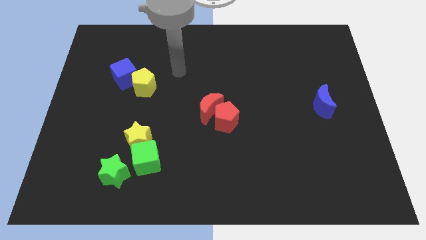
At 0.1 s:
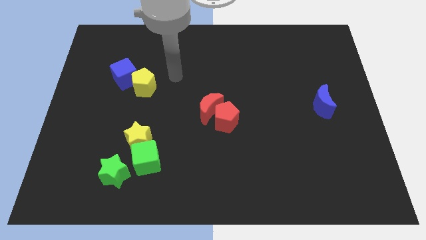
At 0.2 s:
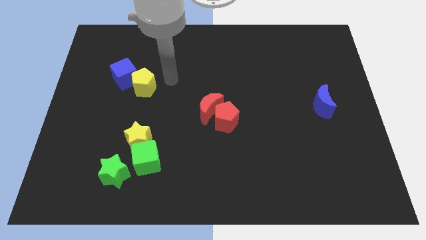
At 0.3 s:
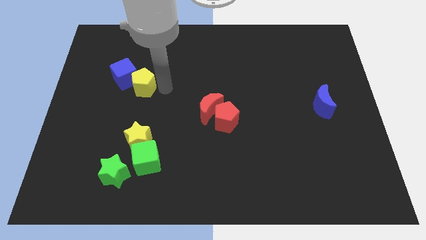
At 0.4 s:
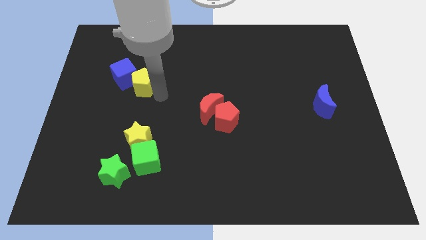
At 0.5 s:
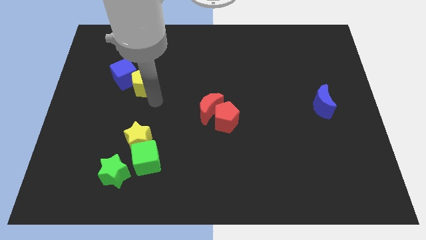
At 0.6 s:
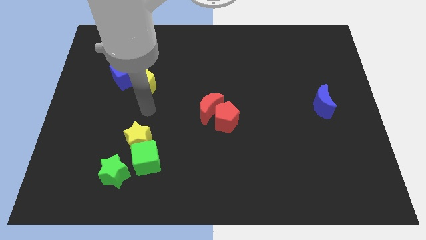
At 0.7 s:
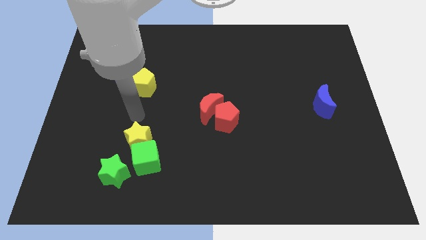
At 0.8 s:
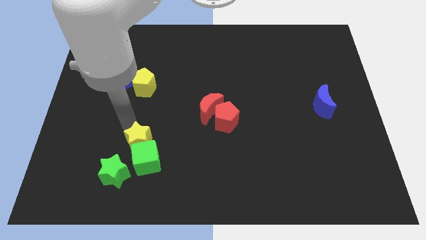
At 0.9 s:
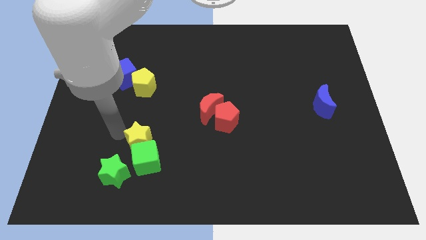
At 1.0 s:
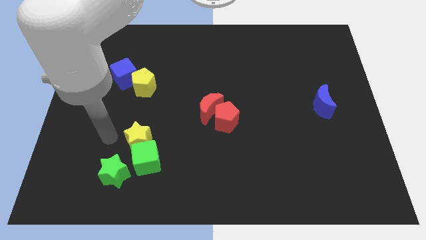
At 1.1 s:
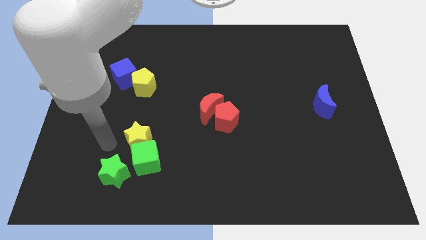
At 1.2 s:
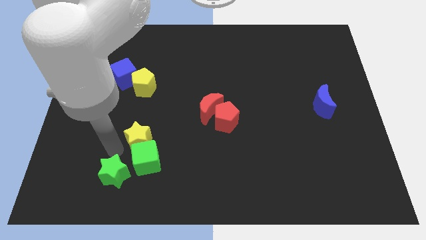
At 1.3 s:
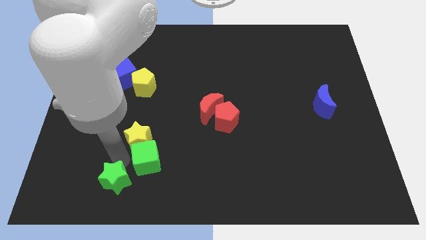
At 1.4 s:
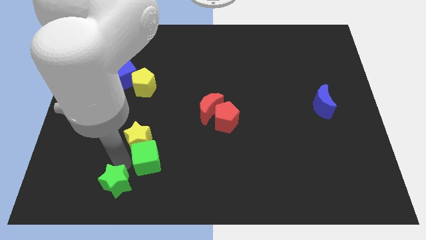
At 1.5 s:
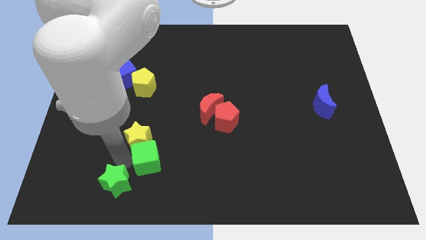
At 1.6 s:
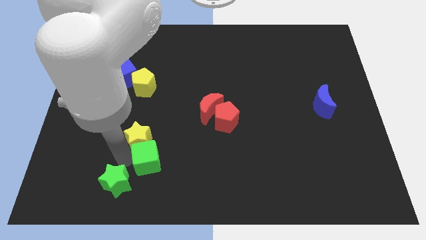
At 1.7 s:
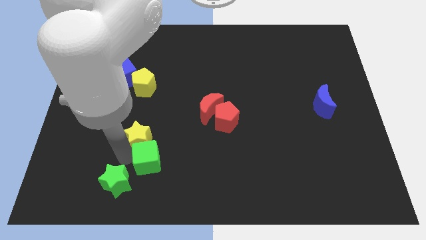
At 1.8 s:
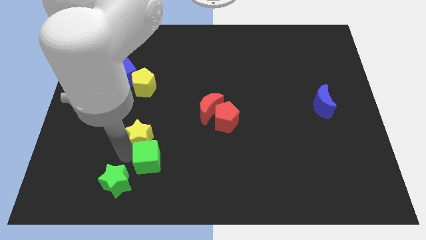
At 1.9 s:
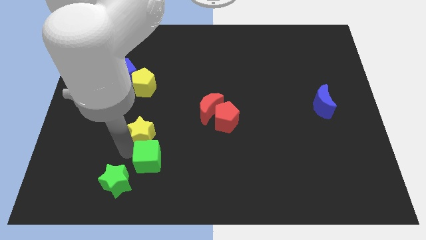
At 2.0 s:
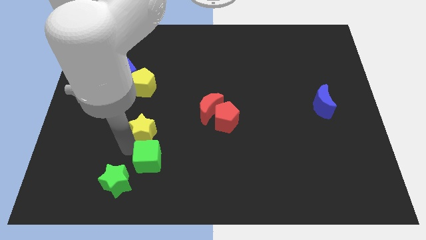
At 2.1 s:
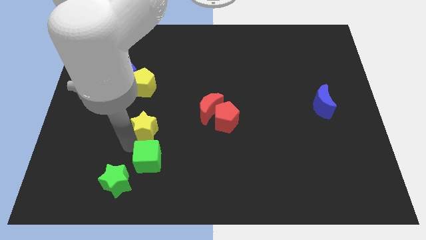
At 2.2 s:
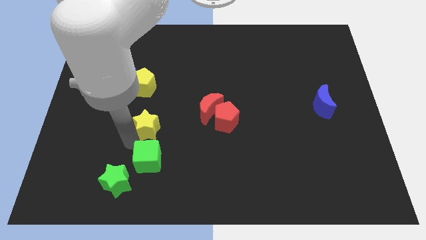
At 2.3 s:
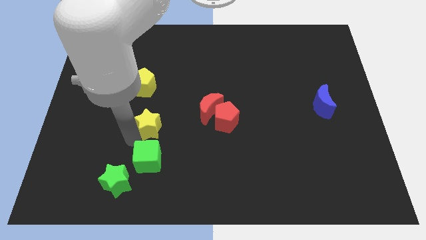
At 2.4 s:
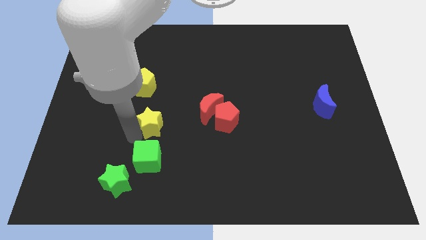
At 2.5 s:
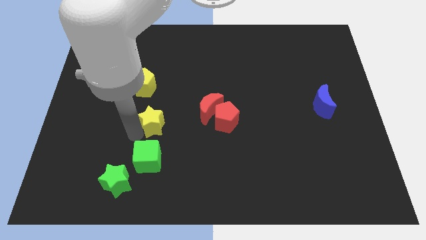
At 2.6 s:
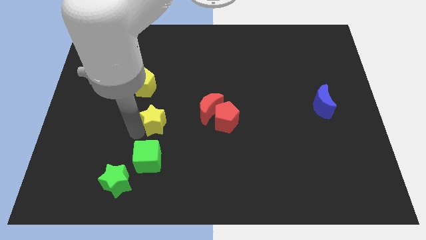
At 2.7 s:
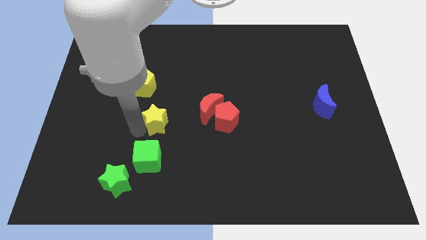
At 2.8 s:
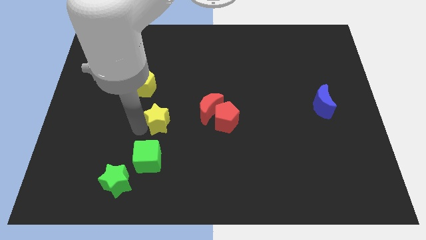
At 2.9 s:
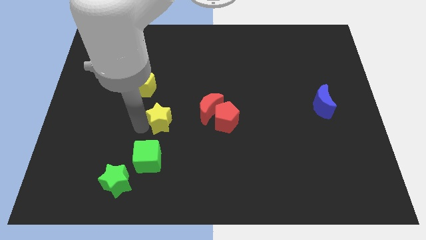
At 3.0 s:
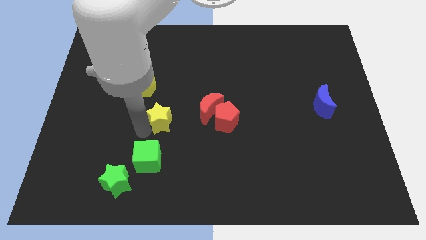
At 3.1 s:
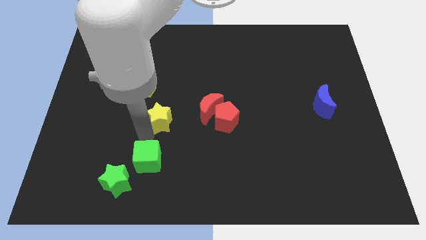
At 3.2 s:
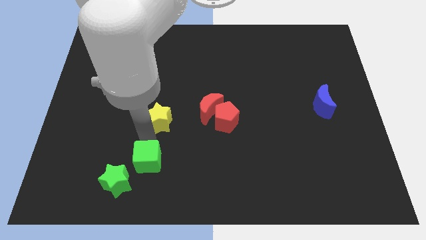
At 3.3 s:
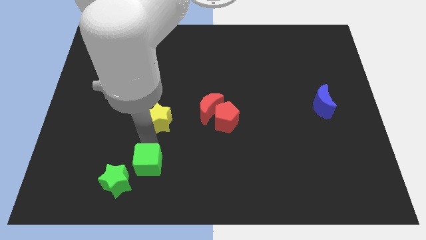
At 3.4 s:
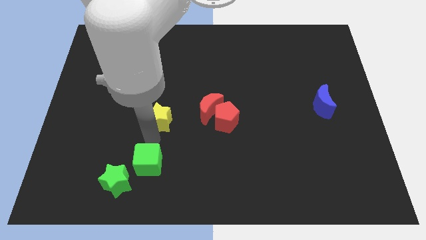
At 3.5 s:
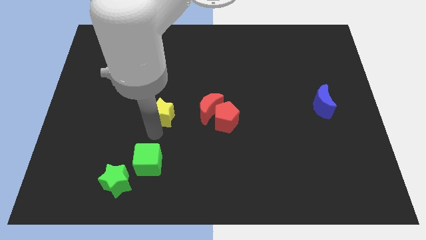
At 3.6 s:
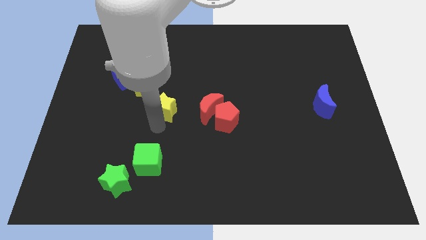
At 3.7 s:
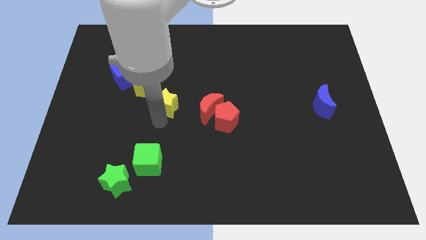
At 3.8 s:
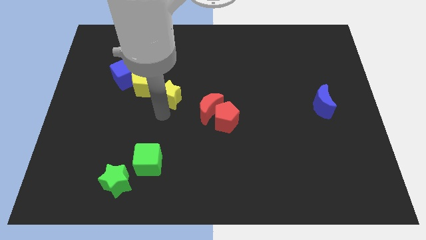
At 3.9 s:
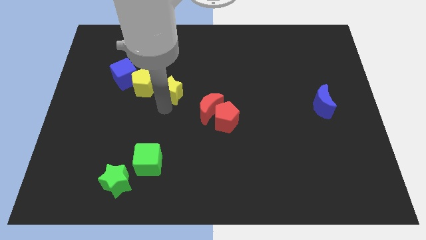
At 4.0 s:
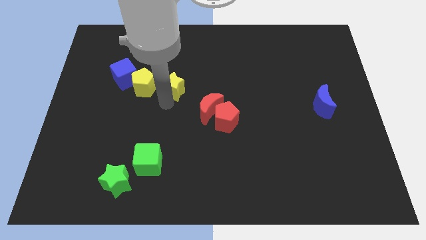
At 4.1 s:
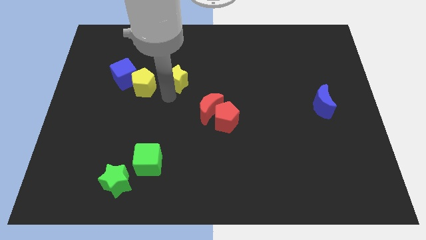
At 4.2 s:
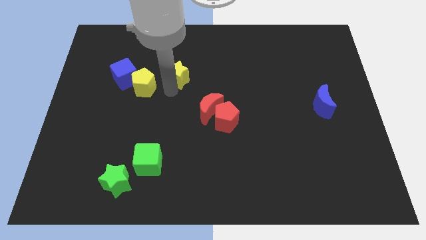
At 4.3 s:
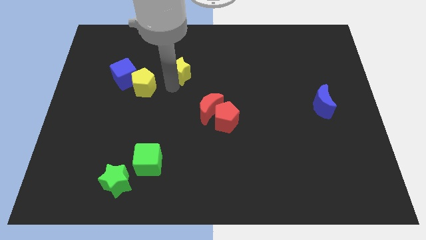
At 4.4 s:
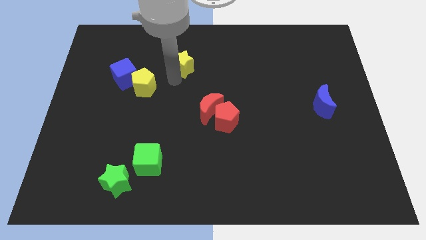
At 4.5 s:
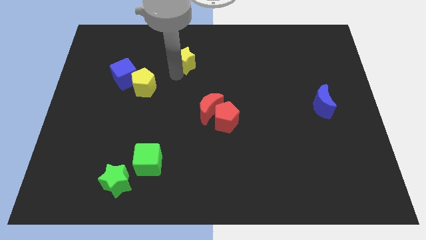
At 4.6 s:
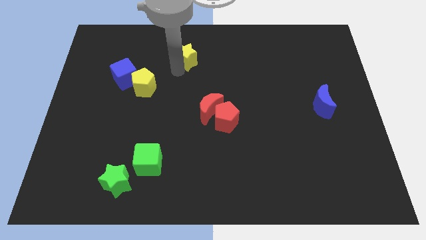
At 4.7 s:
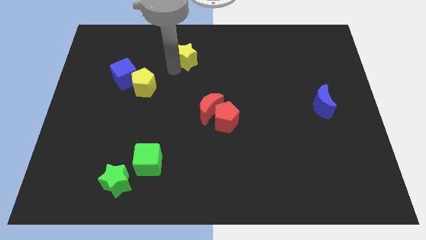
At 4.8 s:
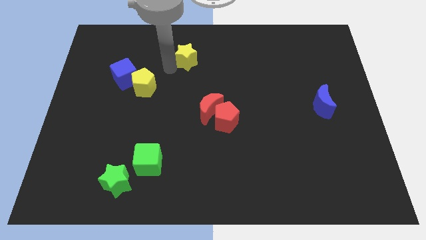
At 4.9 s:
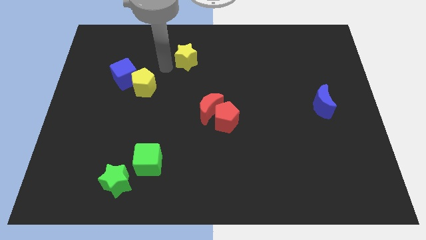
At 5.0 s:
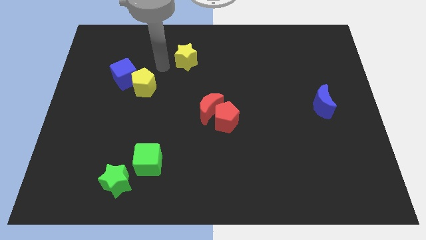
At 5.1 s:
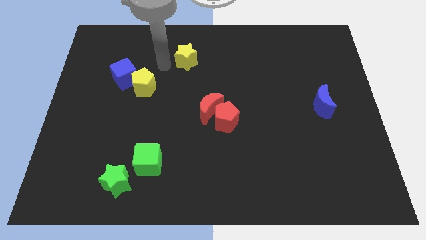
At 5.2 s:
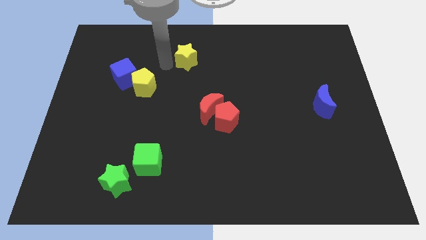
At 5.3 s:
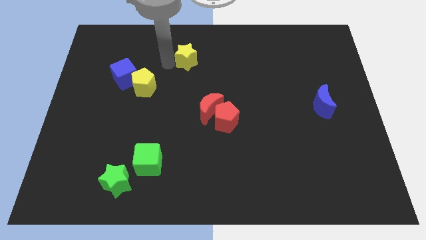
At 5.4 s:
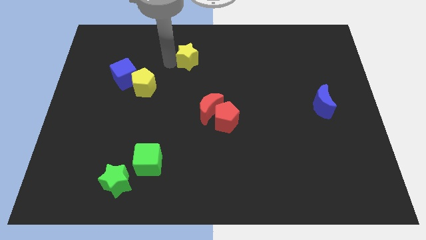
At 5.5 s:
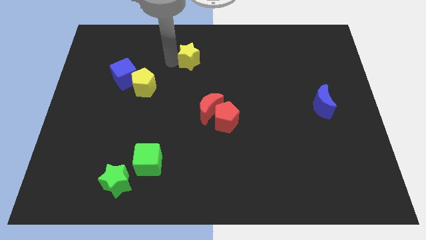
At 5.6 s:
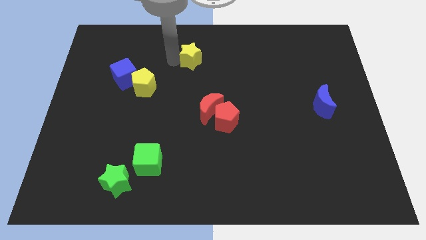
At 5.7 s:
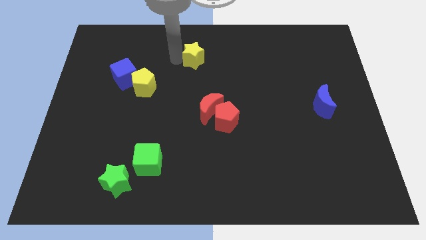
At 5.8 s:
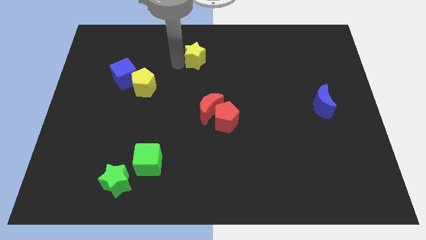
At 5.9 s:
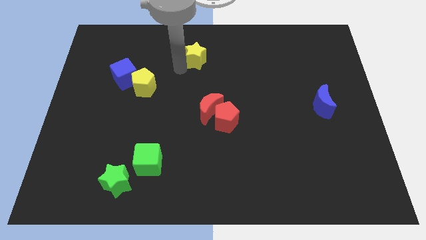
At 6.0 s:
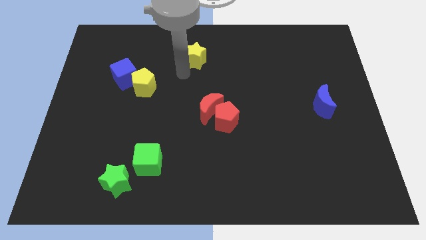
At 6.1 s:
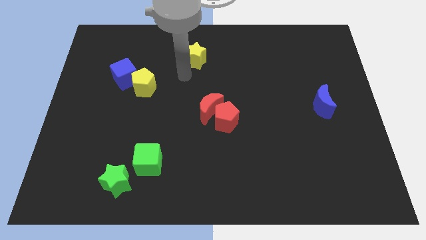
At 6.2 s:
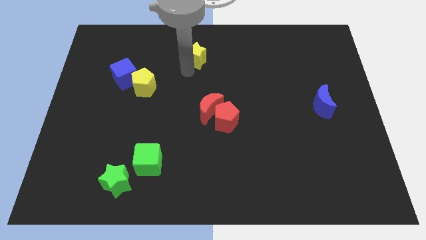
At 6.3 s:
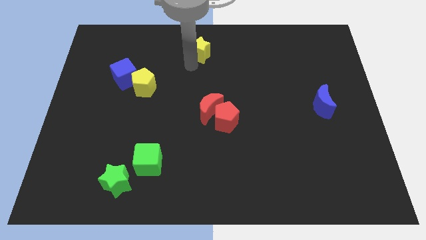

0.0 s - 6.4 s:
push the yellow star to the towards your base
